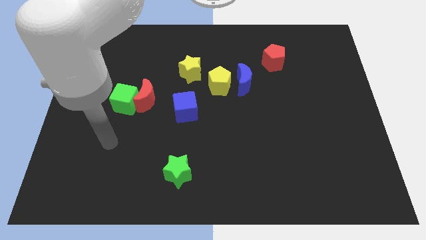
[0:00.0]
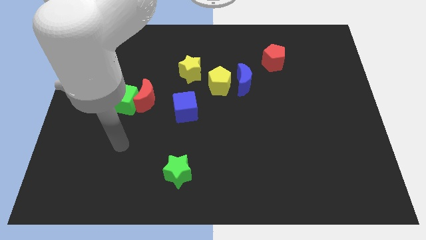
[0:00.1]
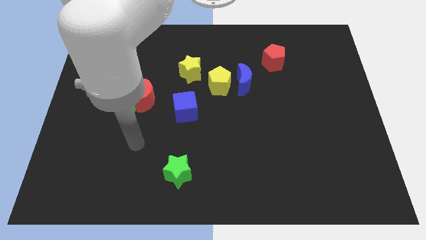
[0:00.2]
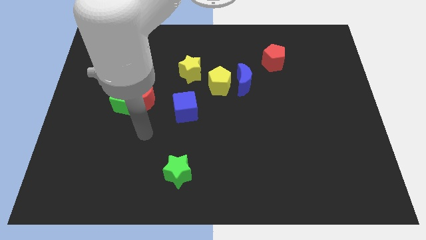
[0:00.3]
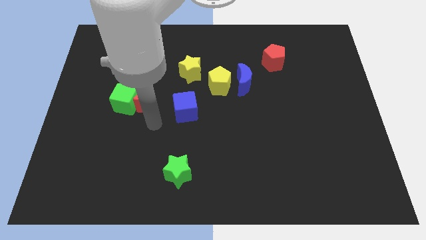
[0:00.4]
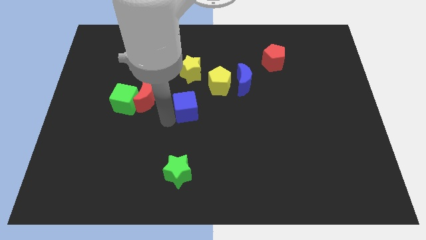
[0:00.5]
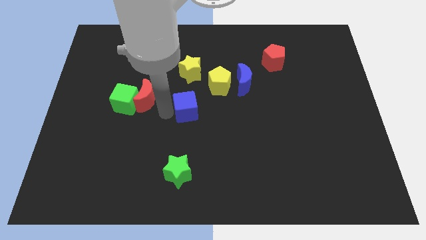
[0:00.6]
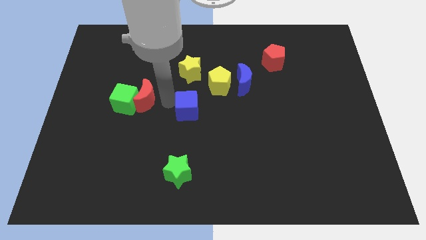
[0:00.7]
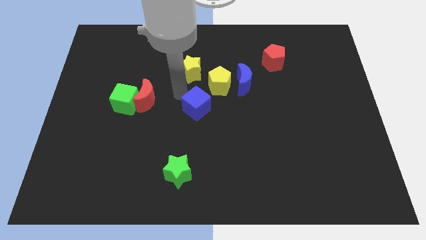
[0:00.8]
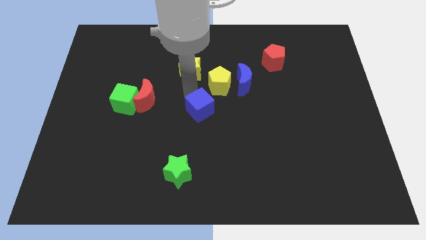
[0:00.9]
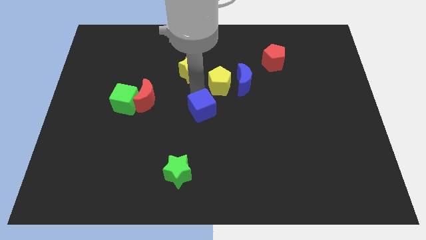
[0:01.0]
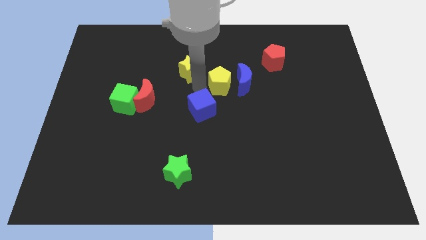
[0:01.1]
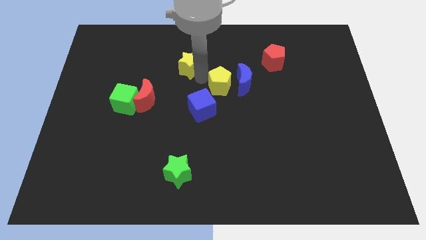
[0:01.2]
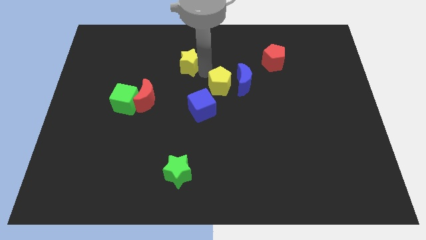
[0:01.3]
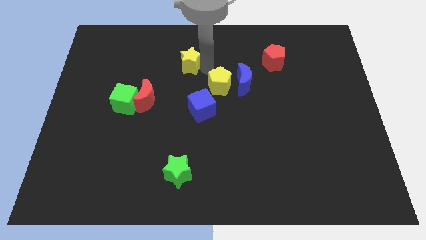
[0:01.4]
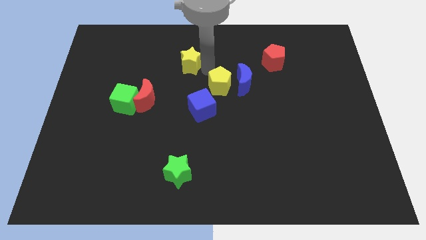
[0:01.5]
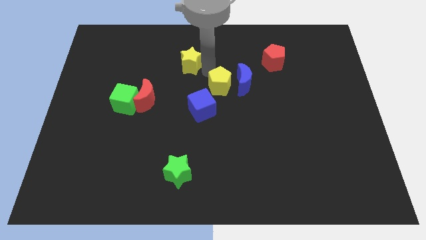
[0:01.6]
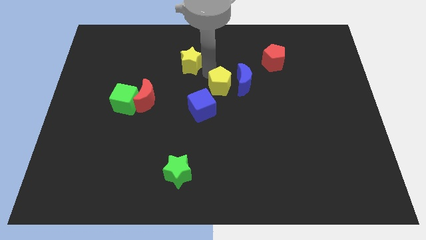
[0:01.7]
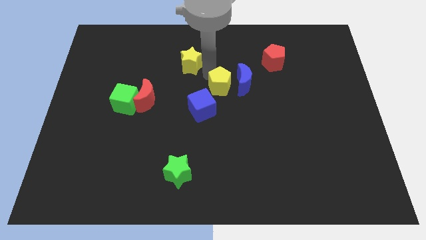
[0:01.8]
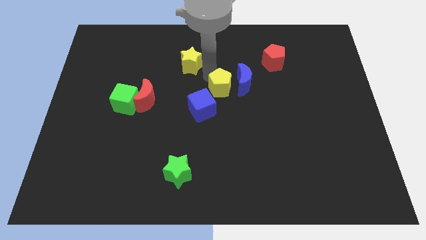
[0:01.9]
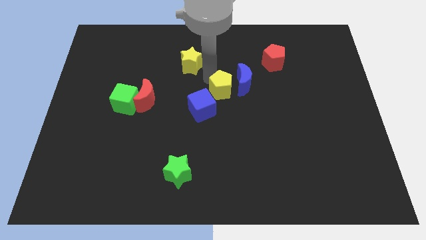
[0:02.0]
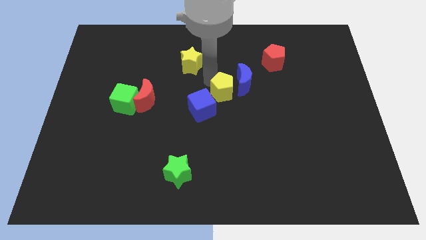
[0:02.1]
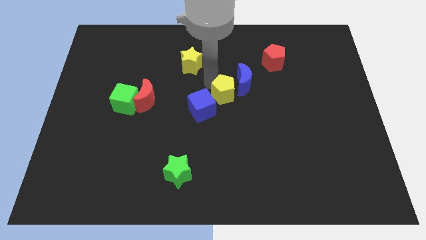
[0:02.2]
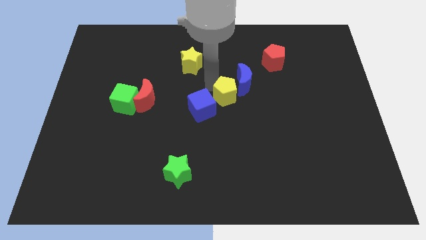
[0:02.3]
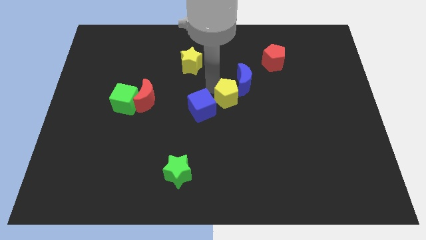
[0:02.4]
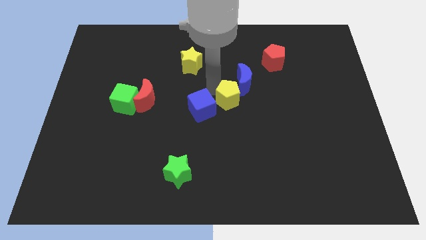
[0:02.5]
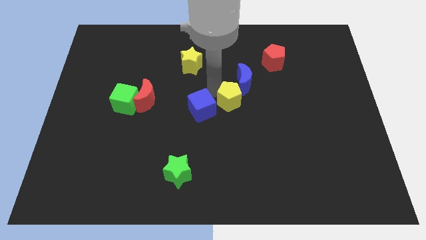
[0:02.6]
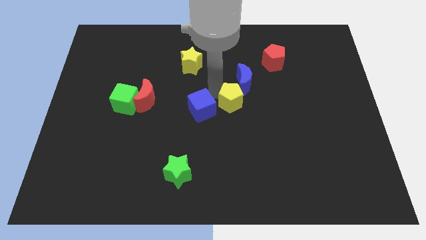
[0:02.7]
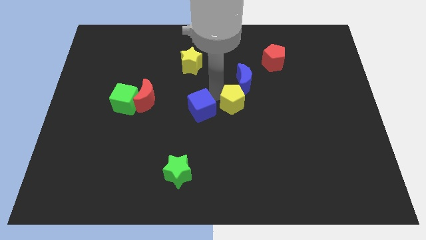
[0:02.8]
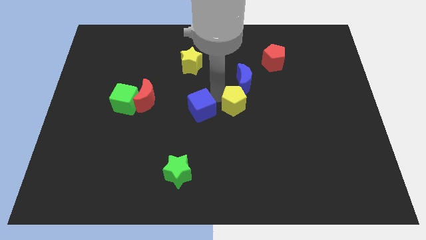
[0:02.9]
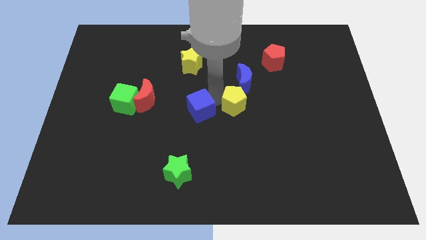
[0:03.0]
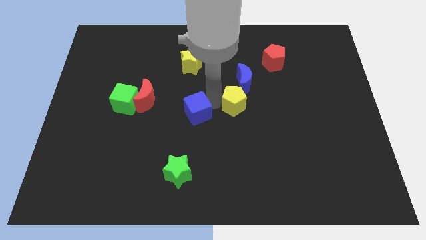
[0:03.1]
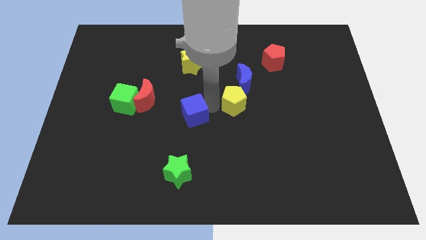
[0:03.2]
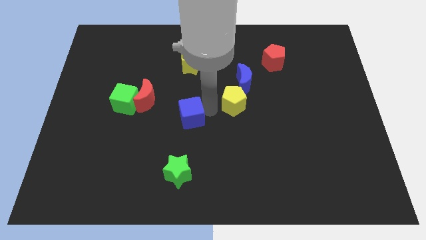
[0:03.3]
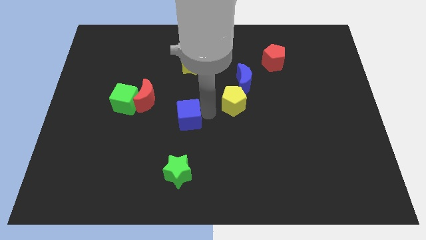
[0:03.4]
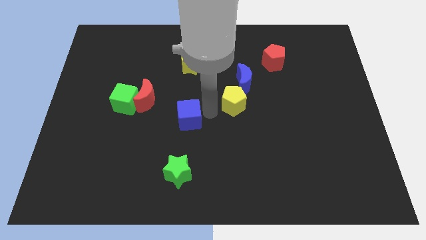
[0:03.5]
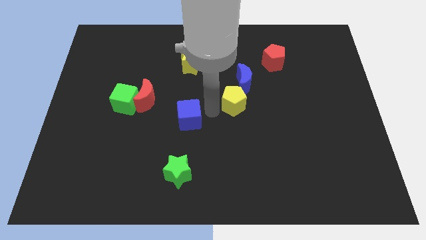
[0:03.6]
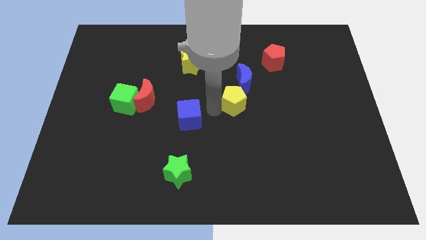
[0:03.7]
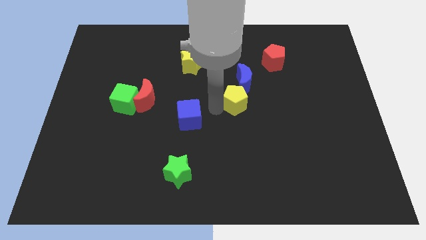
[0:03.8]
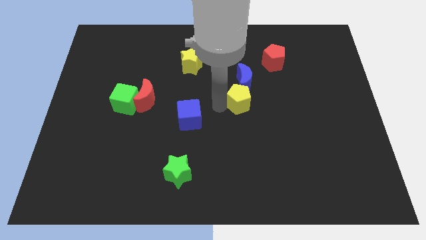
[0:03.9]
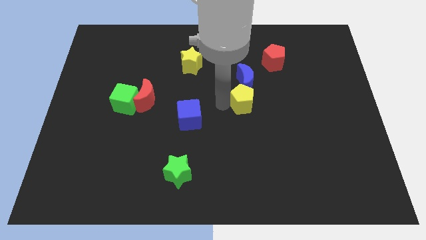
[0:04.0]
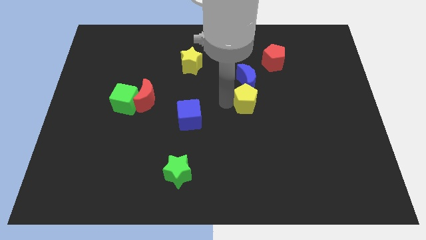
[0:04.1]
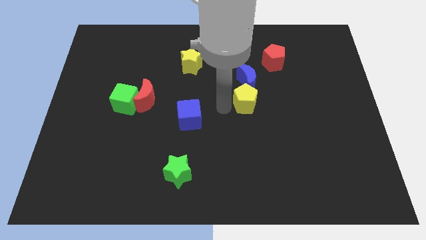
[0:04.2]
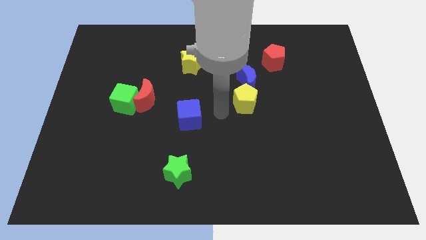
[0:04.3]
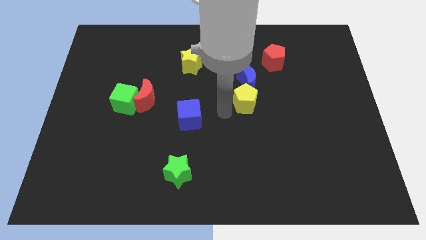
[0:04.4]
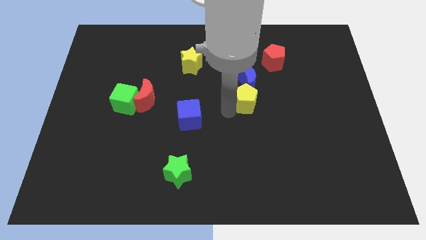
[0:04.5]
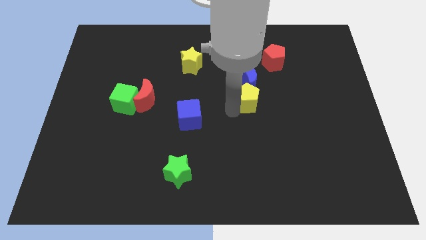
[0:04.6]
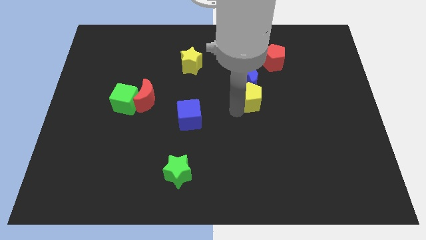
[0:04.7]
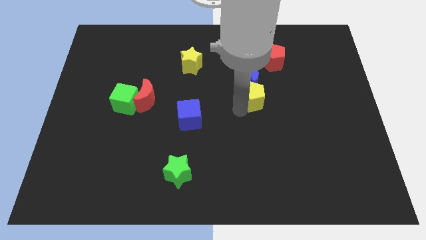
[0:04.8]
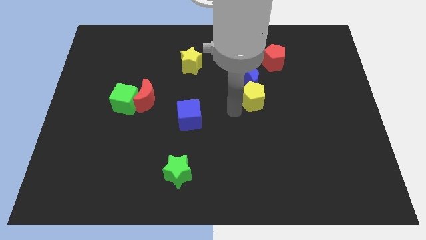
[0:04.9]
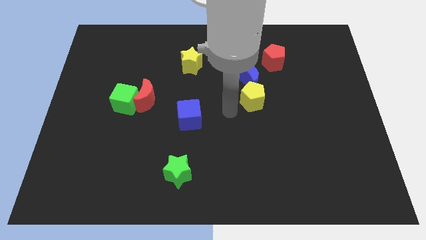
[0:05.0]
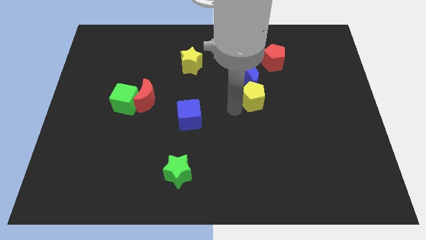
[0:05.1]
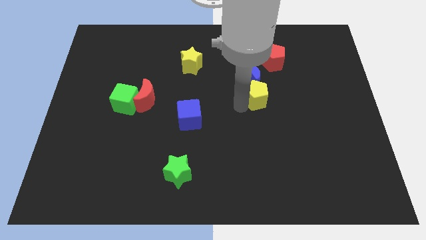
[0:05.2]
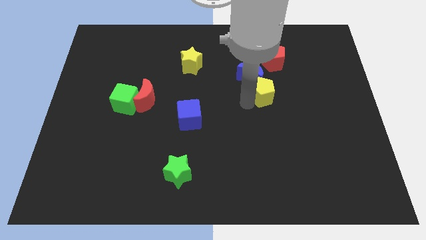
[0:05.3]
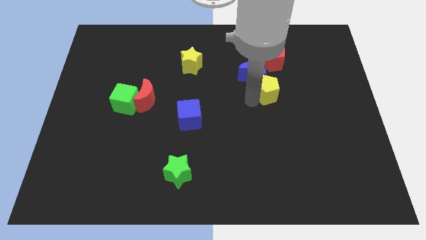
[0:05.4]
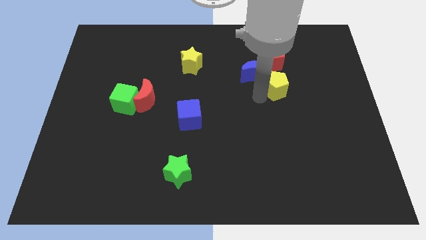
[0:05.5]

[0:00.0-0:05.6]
push the yellow pentagon right of the blue moon

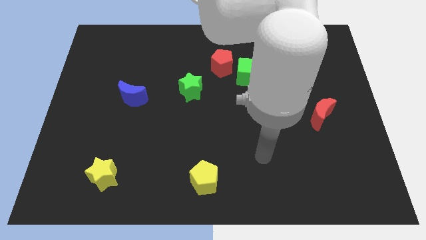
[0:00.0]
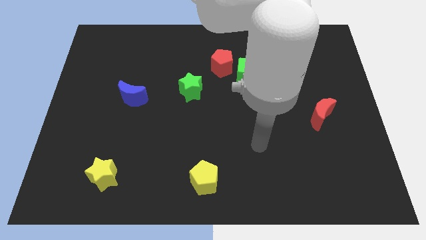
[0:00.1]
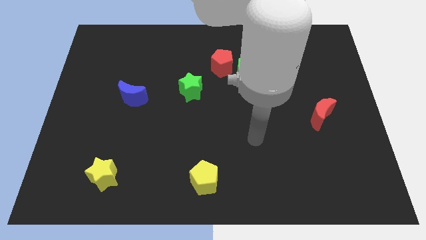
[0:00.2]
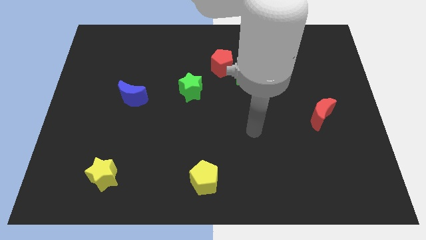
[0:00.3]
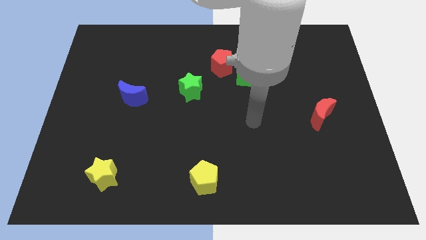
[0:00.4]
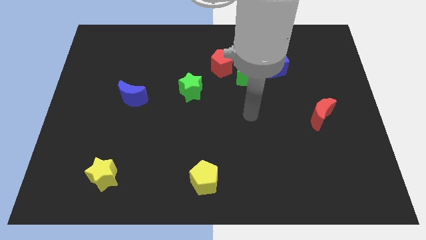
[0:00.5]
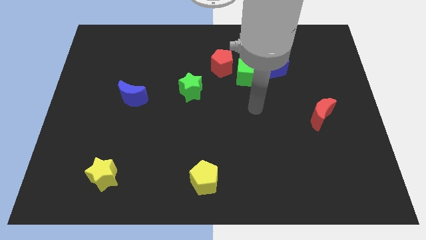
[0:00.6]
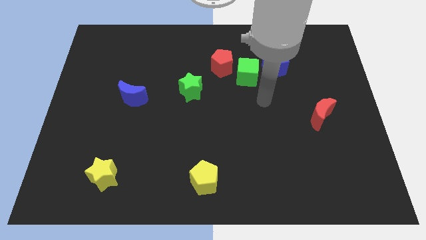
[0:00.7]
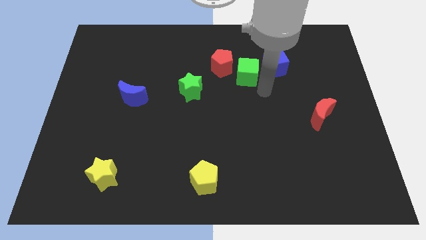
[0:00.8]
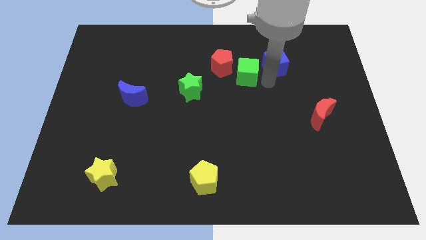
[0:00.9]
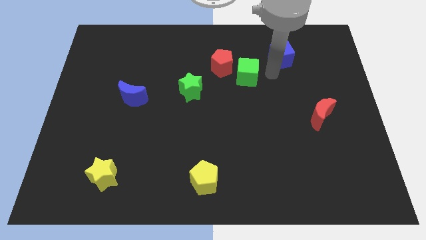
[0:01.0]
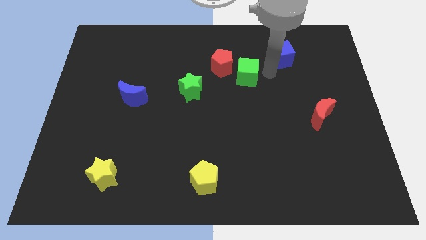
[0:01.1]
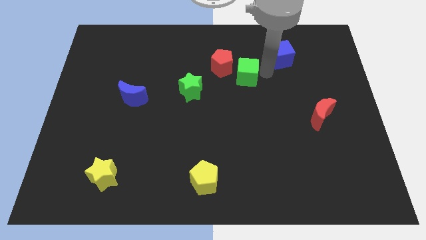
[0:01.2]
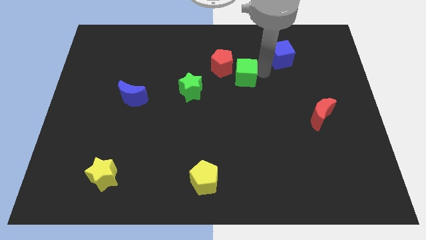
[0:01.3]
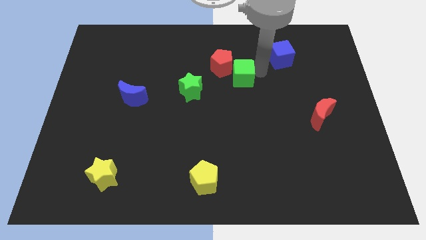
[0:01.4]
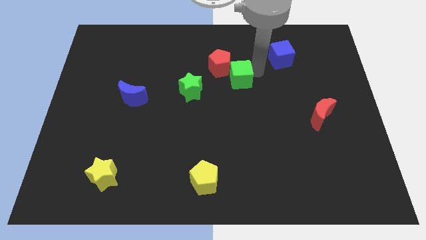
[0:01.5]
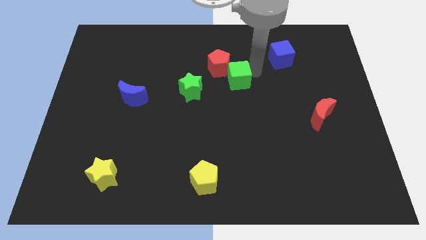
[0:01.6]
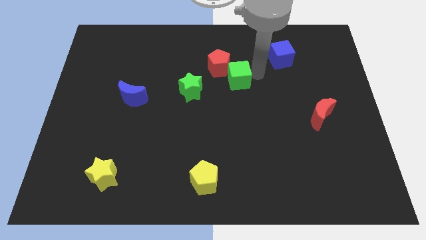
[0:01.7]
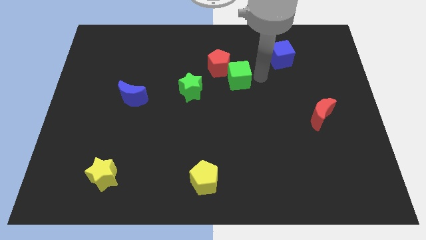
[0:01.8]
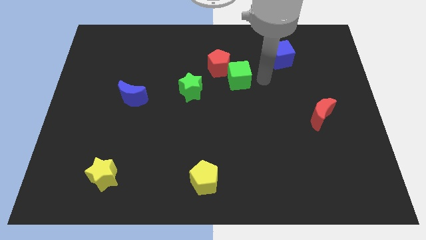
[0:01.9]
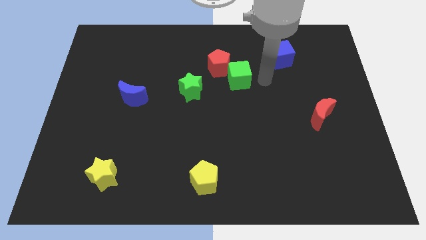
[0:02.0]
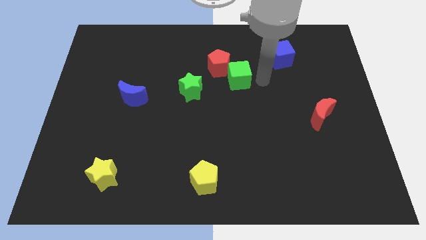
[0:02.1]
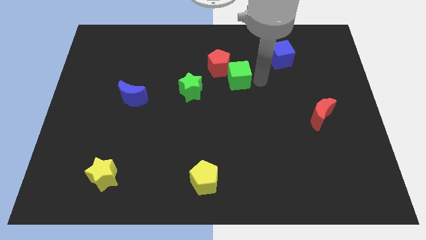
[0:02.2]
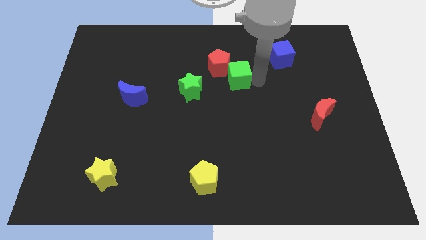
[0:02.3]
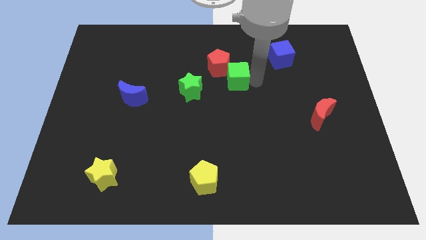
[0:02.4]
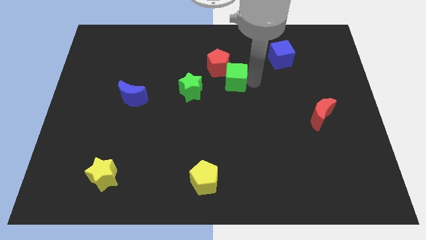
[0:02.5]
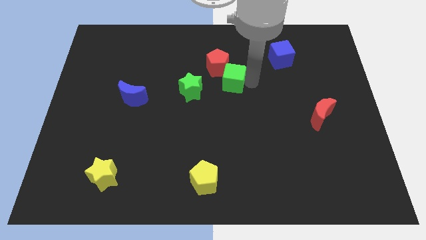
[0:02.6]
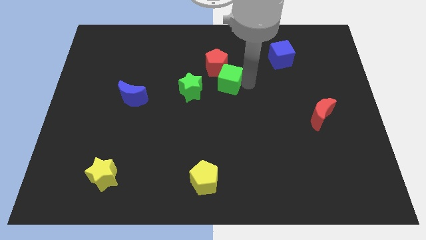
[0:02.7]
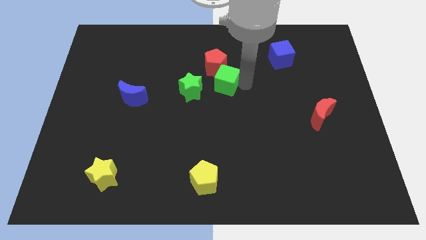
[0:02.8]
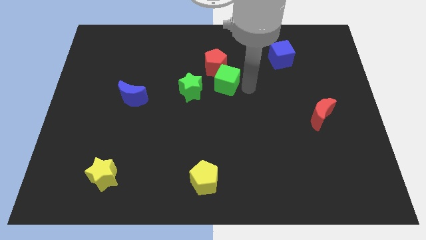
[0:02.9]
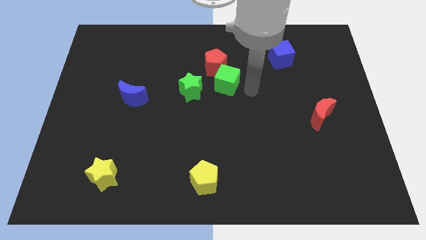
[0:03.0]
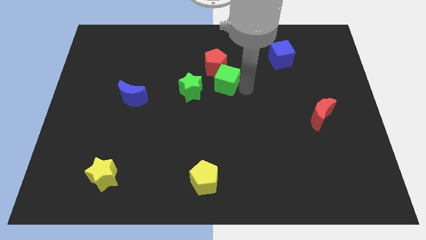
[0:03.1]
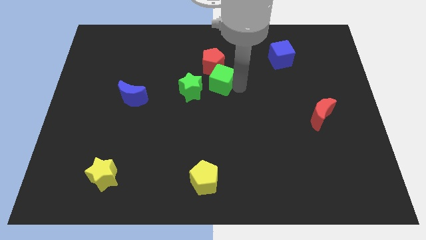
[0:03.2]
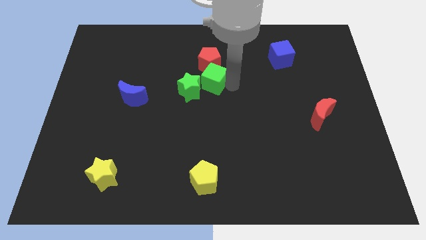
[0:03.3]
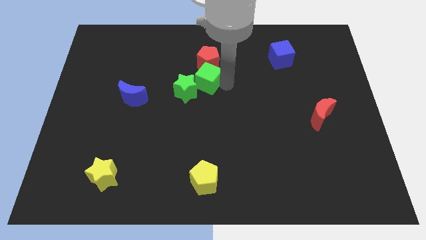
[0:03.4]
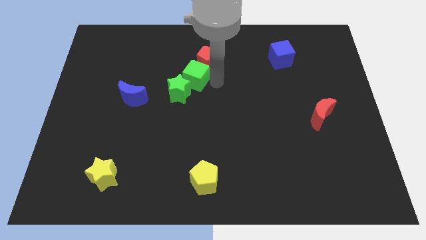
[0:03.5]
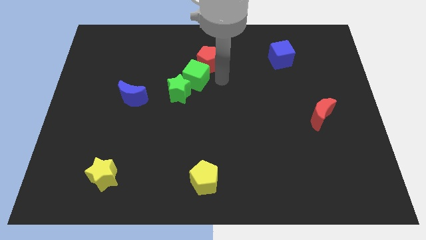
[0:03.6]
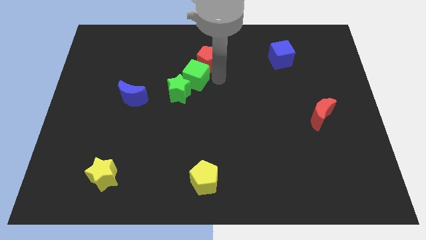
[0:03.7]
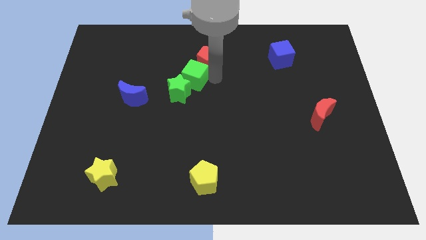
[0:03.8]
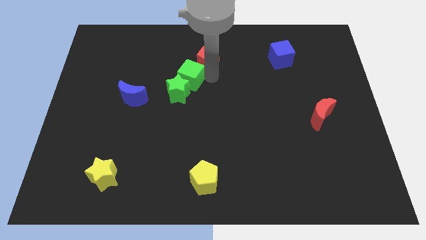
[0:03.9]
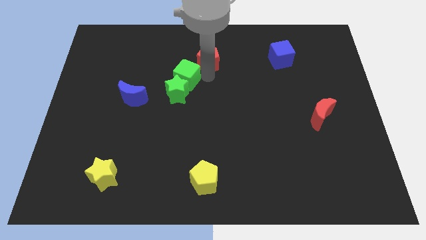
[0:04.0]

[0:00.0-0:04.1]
put the green cube diagonally up and to the left of the green star
